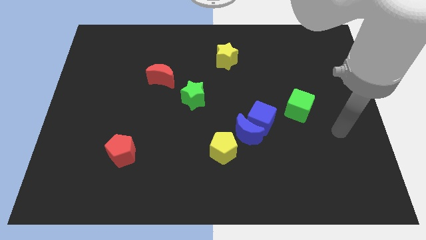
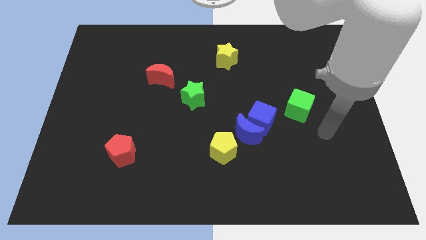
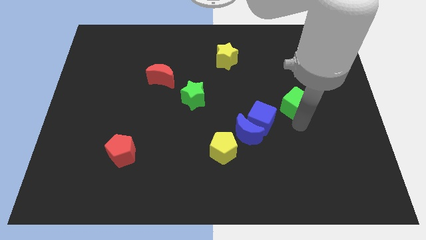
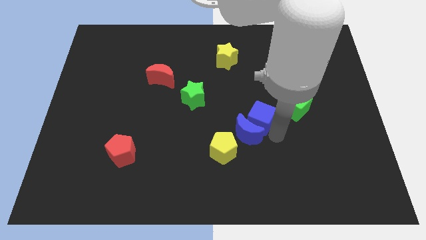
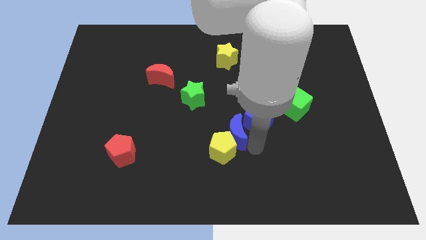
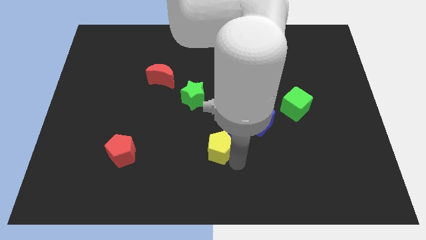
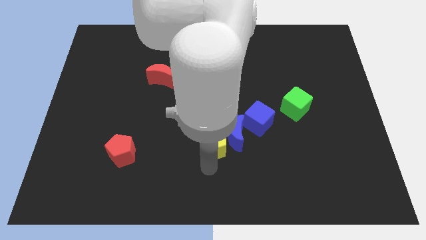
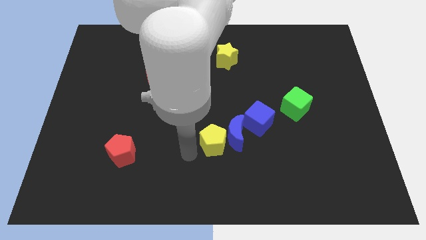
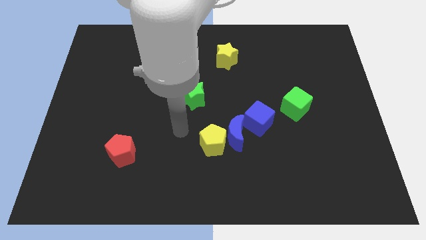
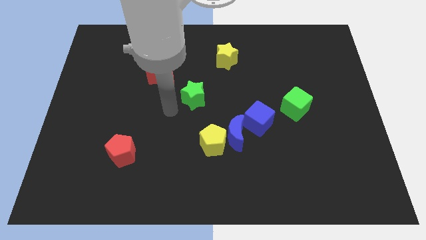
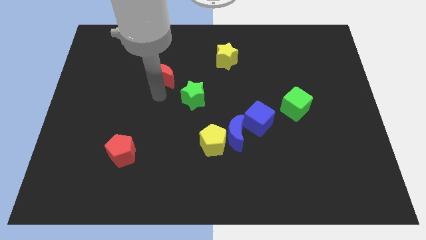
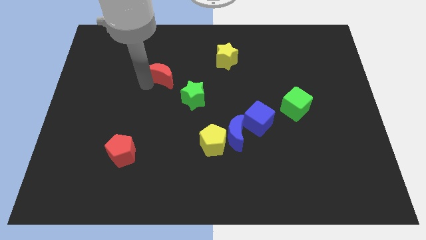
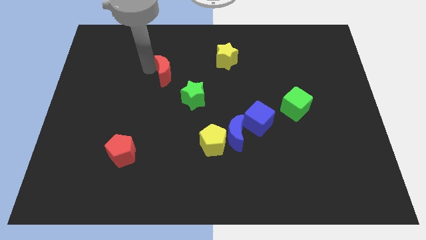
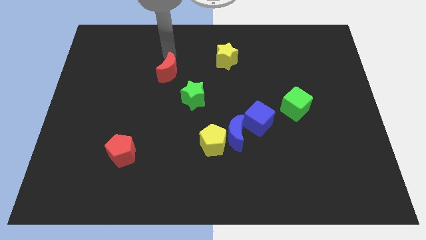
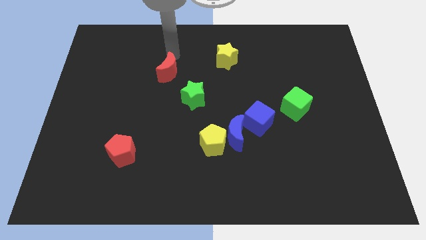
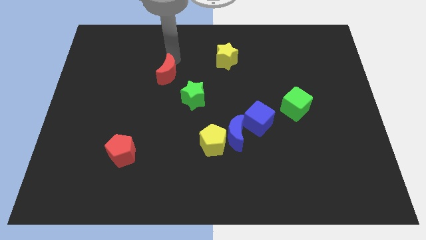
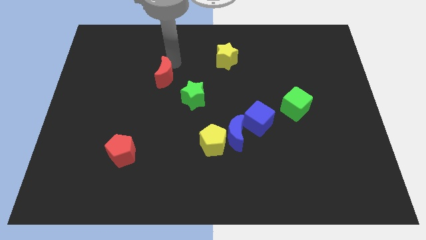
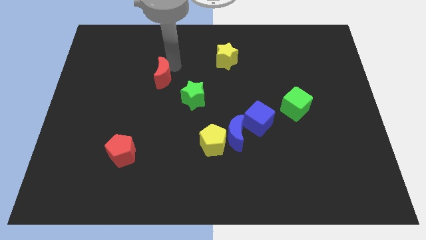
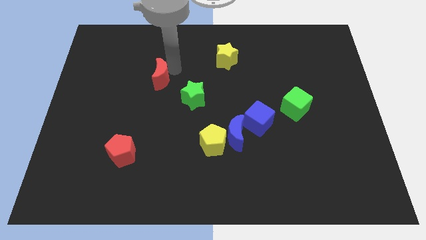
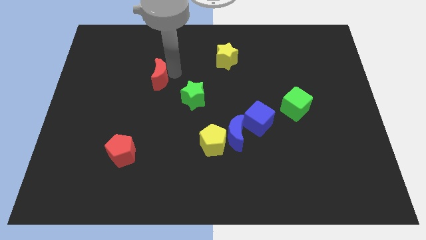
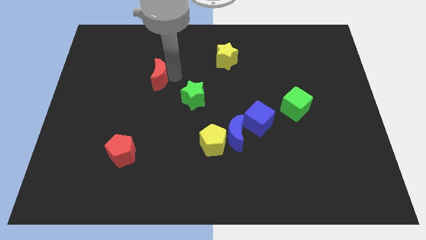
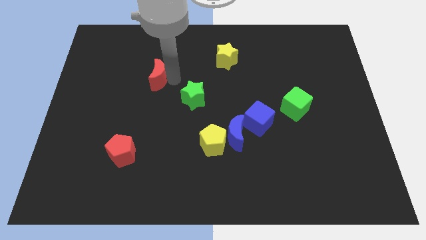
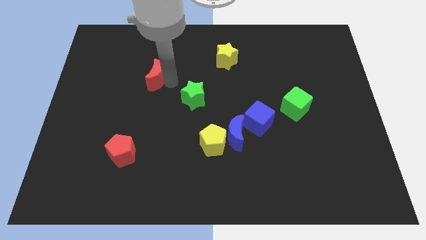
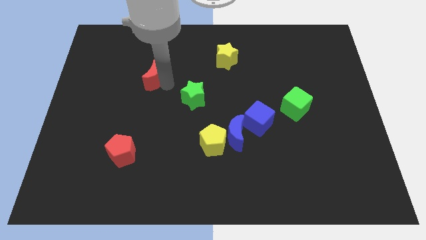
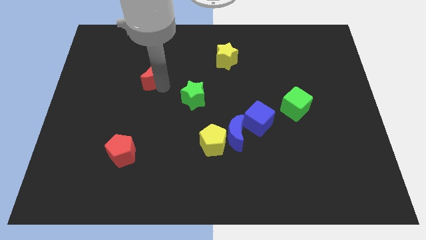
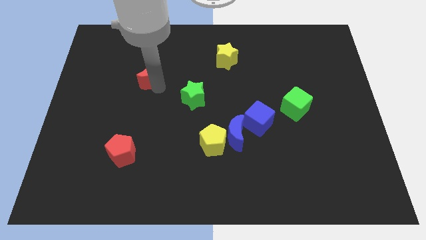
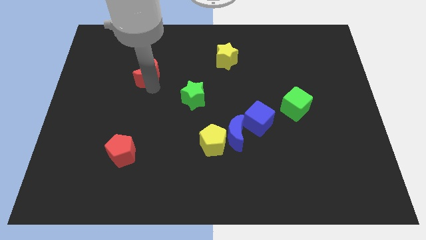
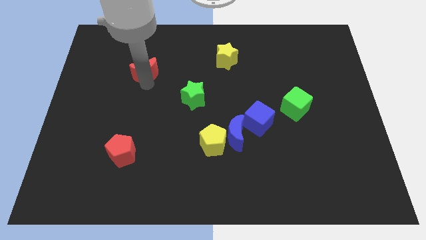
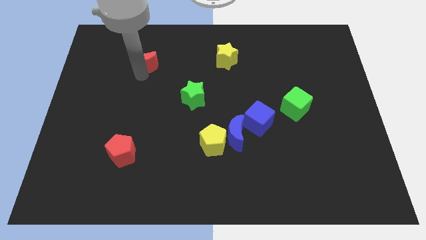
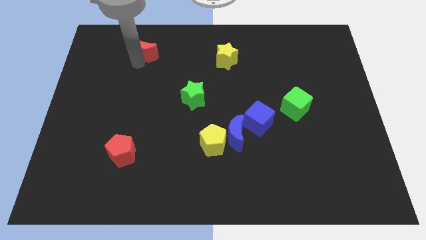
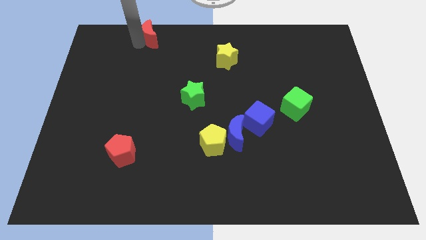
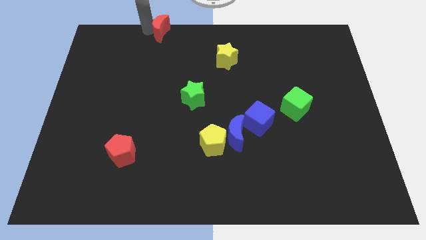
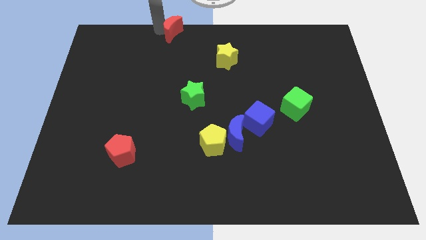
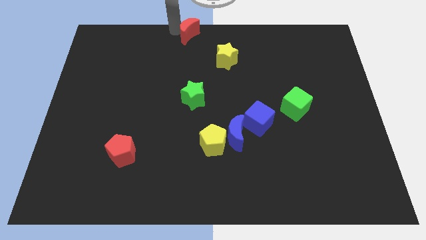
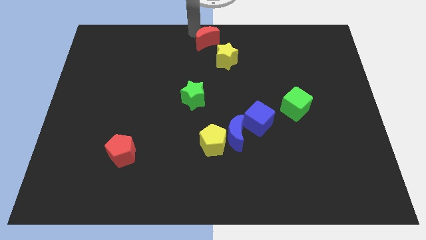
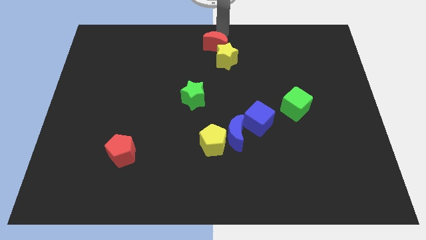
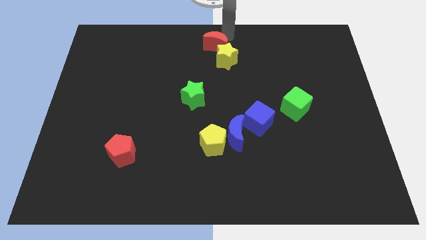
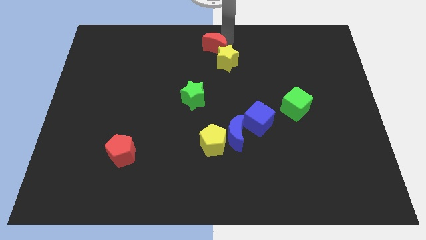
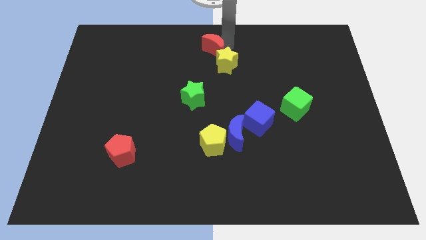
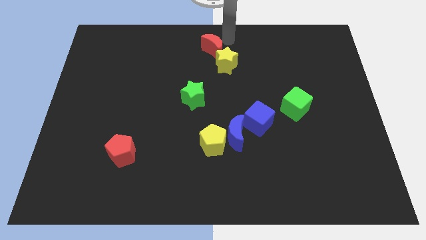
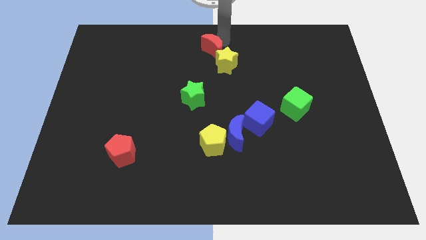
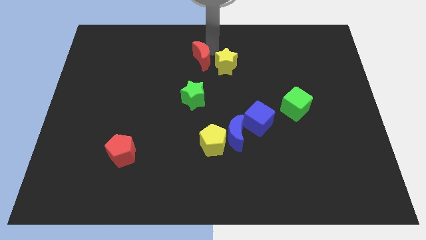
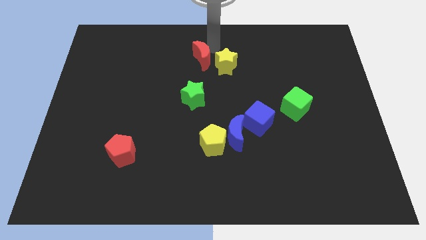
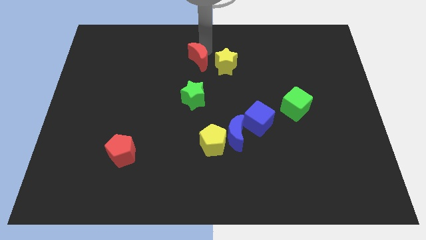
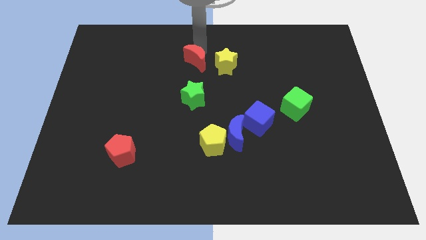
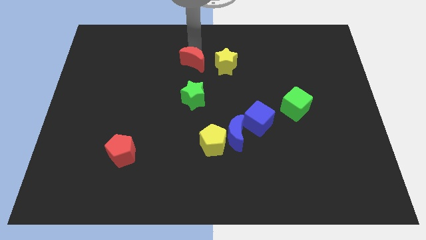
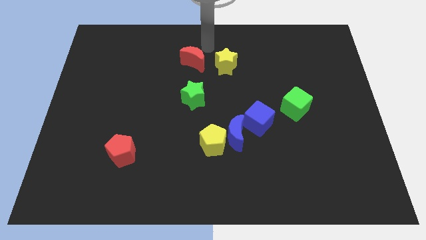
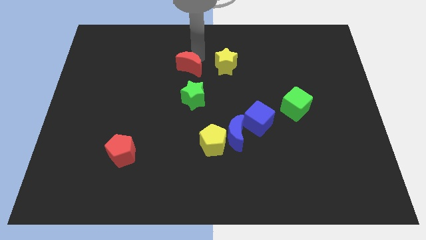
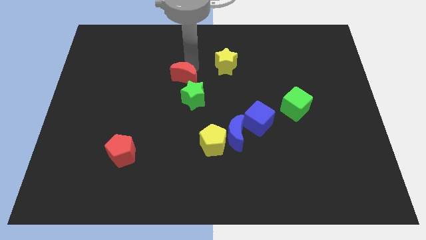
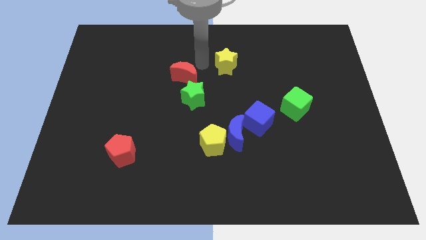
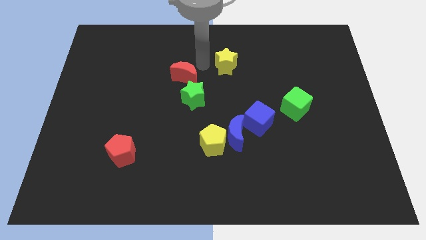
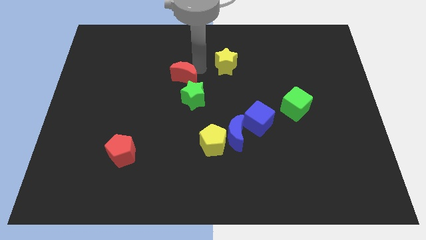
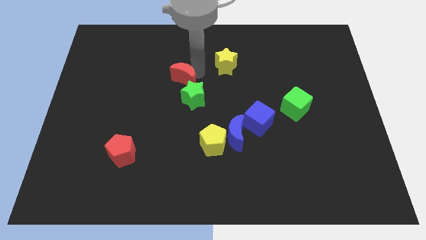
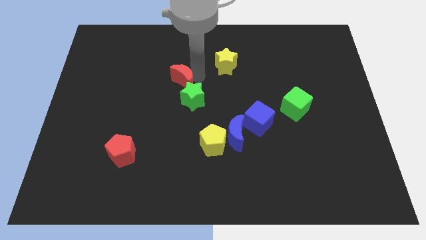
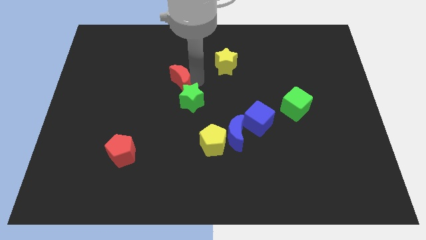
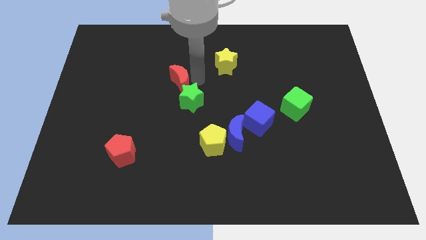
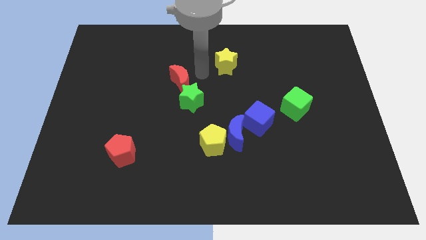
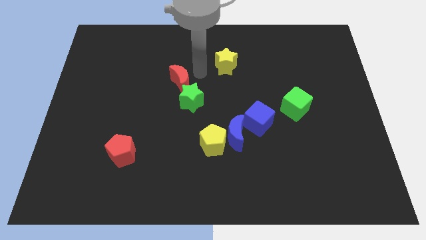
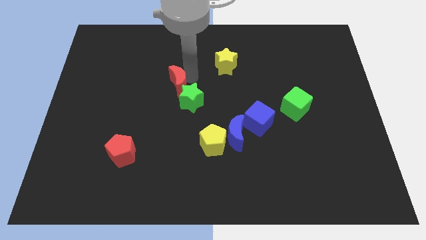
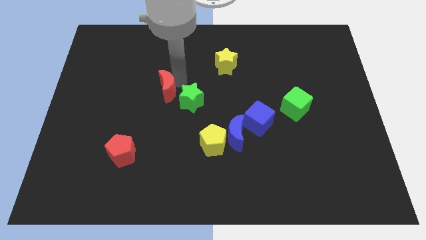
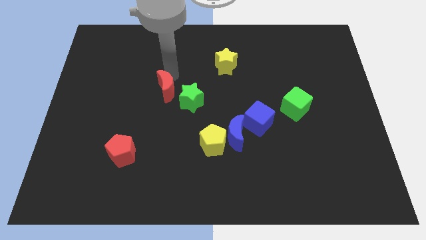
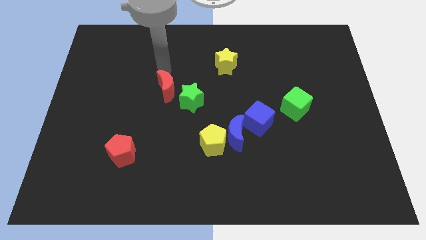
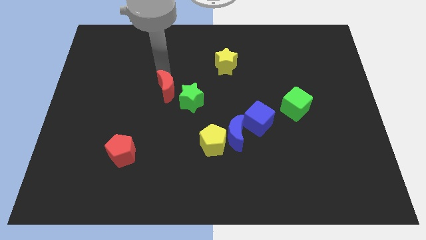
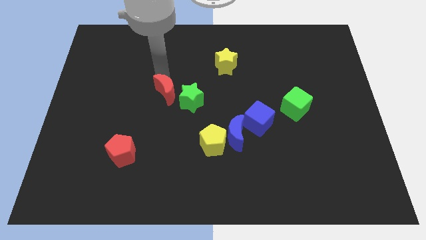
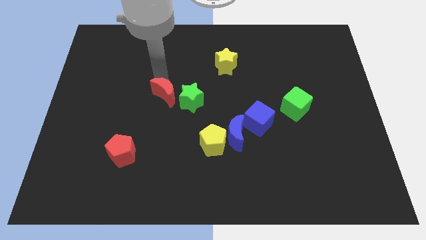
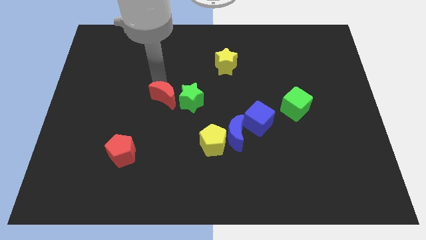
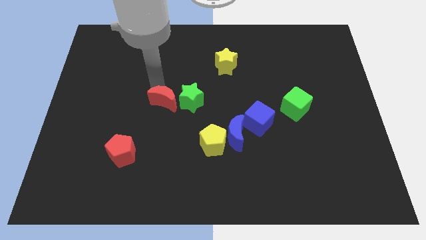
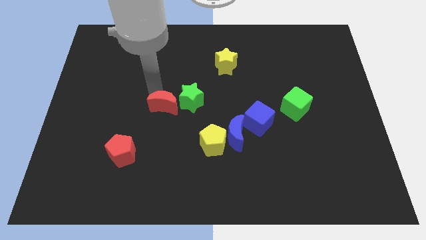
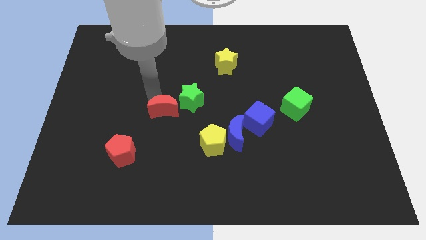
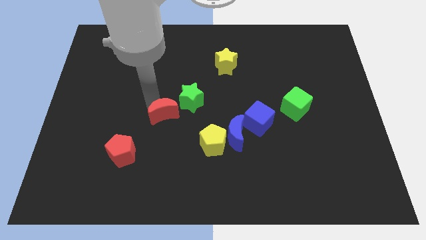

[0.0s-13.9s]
slightly move the red moon downwards and right diagonally

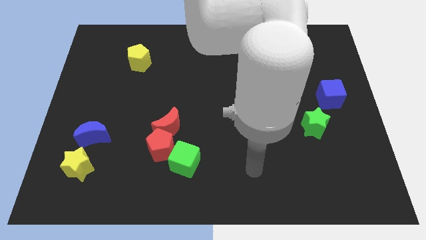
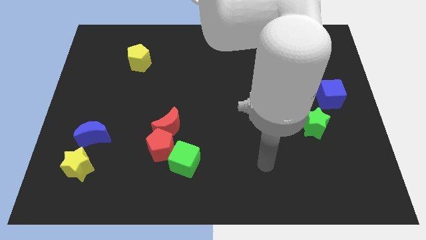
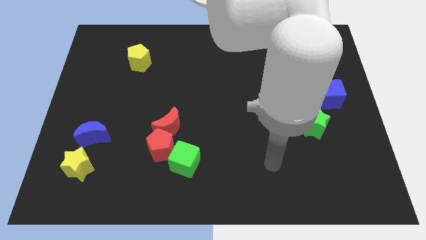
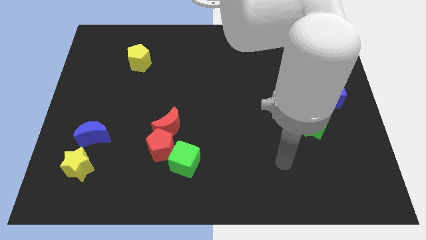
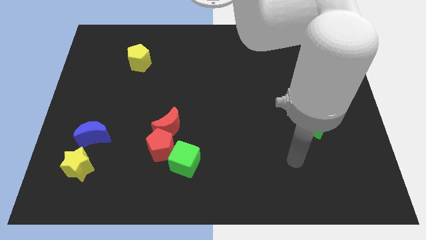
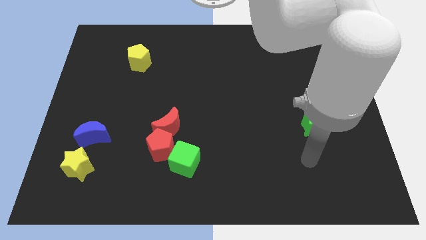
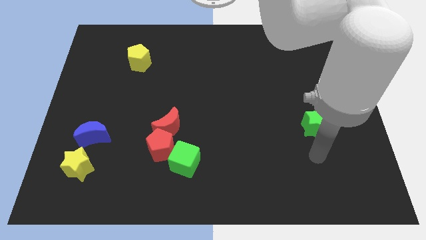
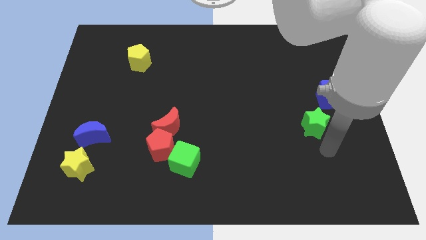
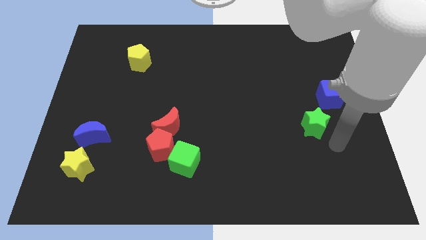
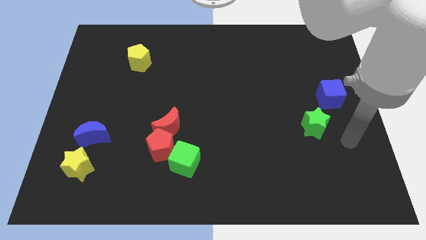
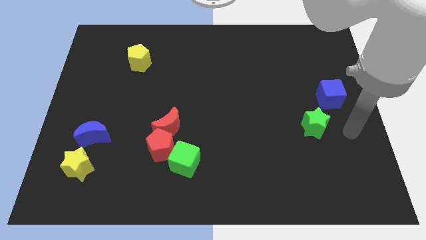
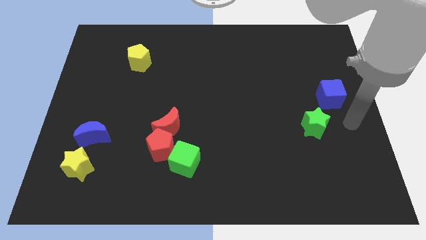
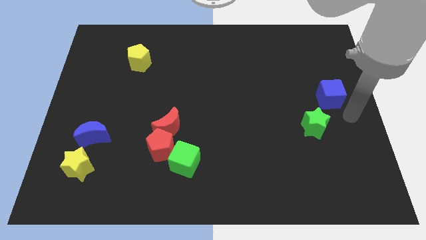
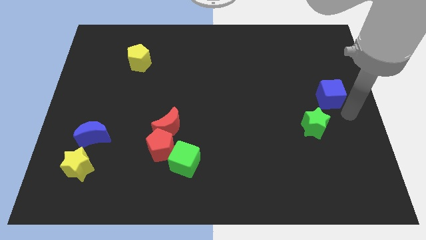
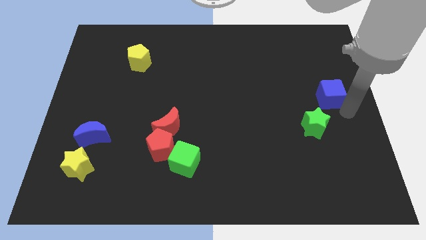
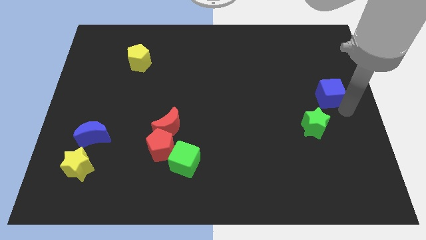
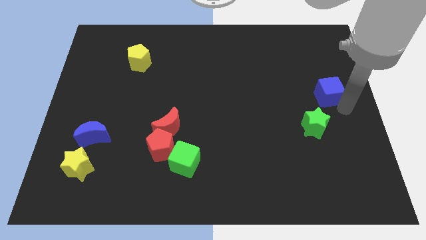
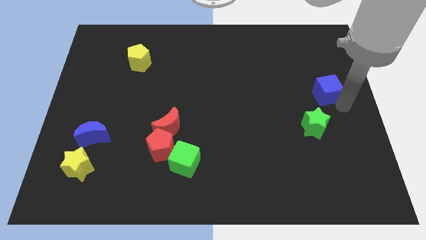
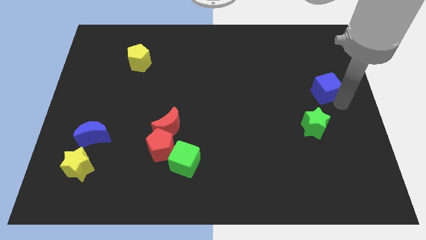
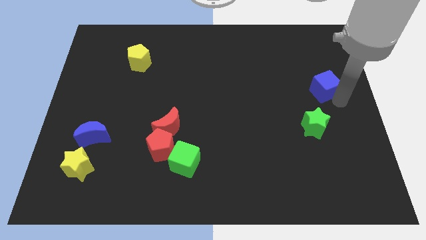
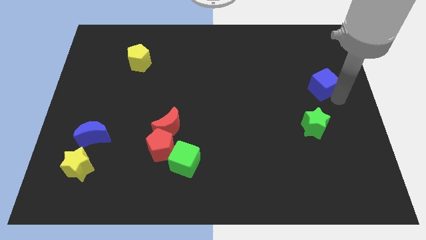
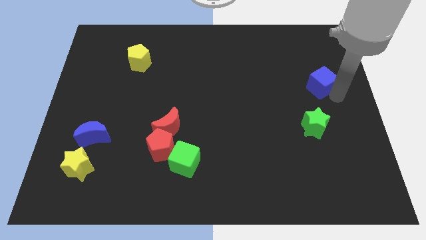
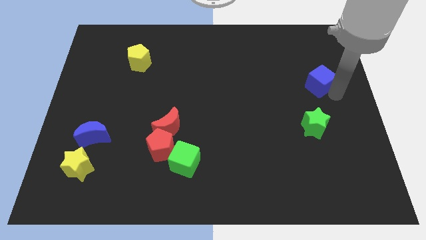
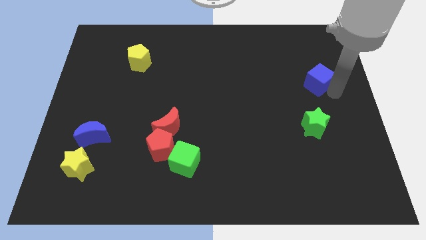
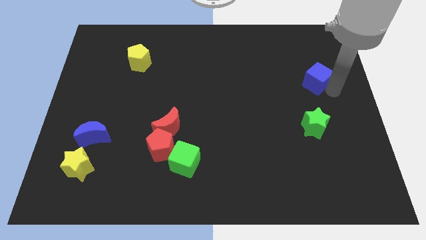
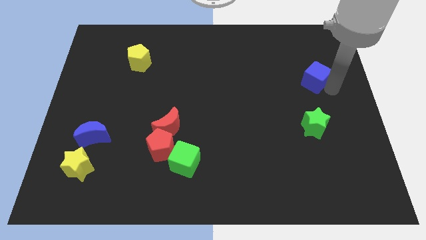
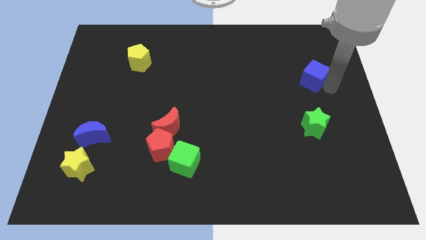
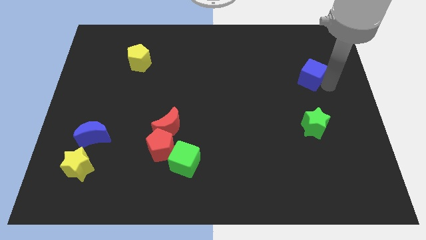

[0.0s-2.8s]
push the blue cube up and left diagonally a little
